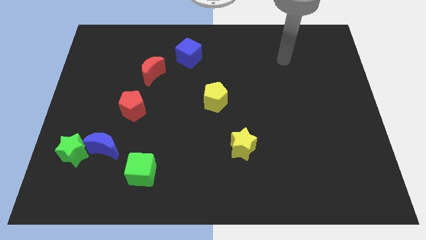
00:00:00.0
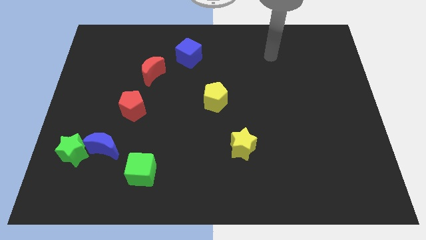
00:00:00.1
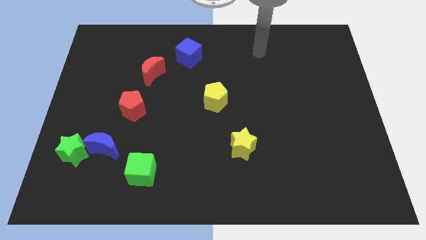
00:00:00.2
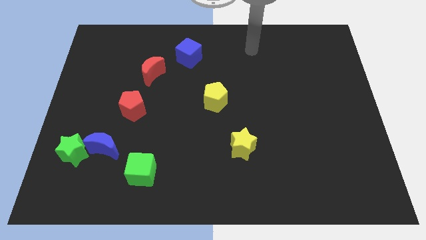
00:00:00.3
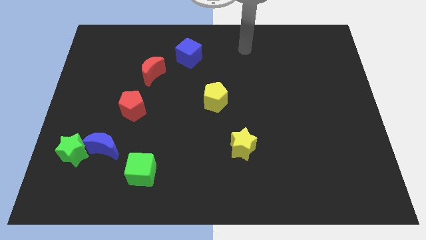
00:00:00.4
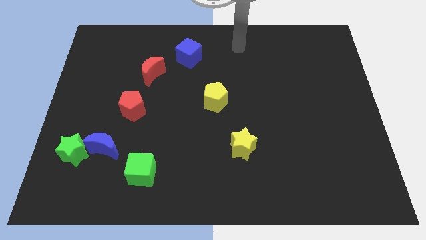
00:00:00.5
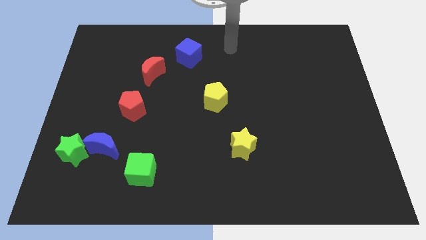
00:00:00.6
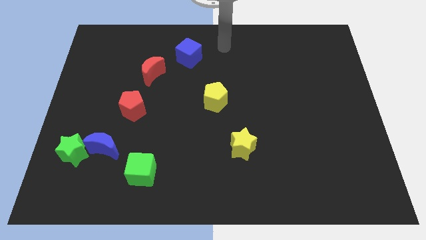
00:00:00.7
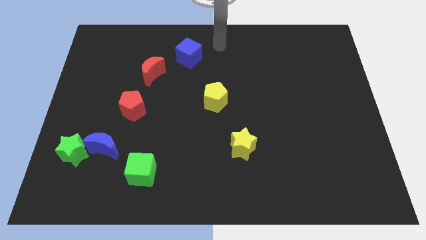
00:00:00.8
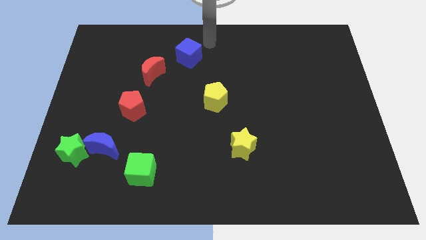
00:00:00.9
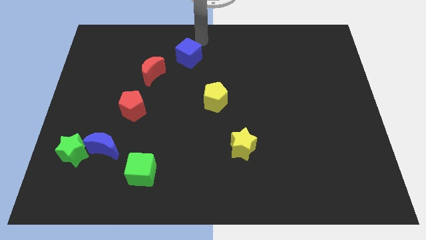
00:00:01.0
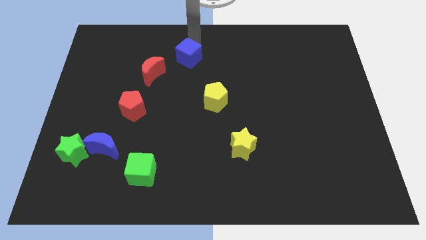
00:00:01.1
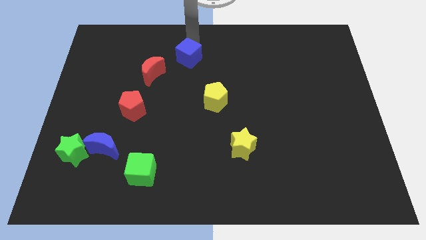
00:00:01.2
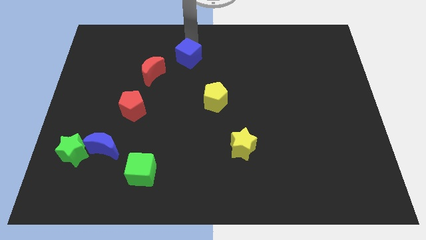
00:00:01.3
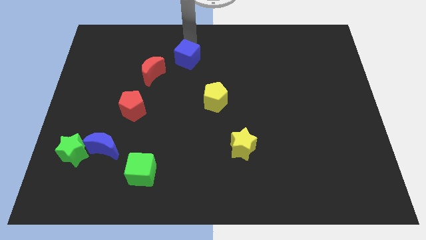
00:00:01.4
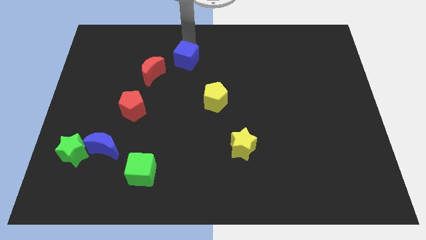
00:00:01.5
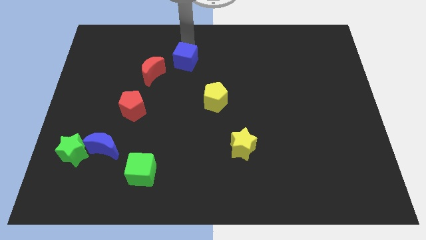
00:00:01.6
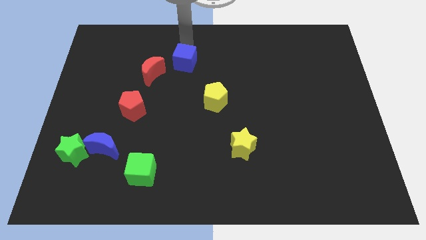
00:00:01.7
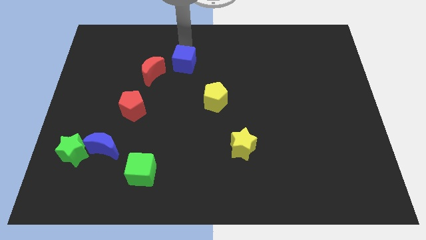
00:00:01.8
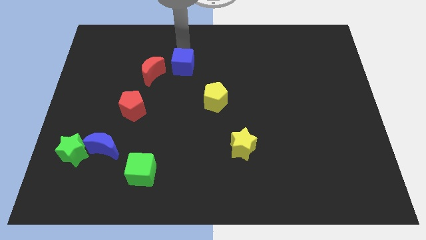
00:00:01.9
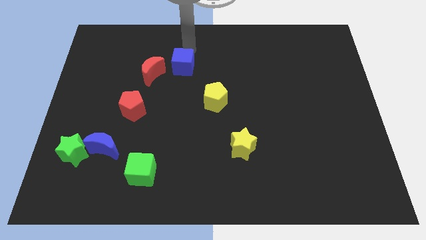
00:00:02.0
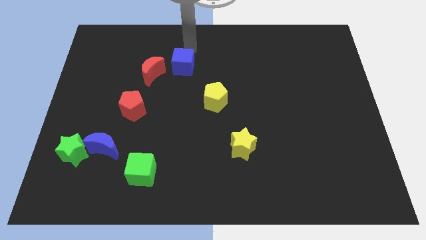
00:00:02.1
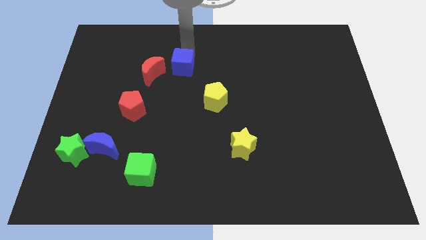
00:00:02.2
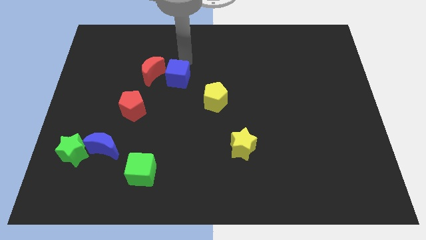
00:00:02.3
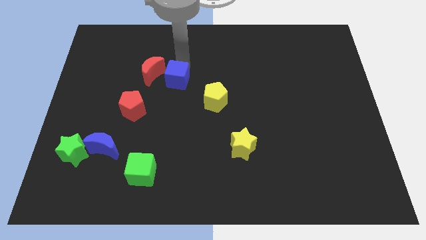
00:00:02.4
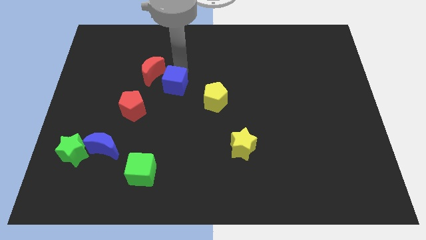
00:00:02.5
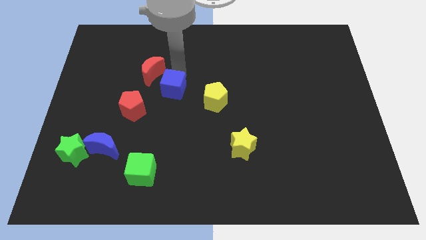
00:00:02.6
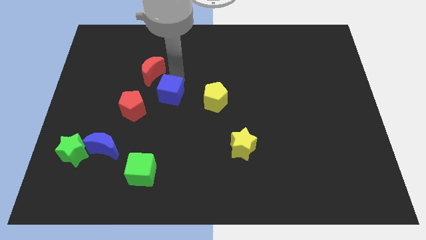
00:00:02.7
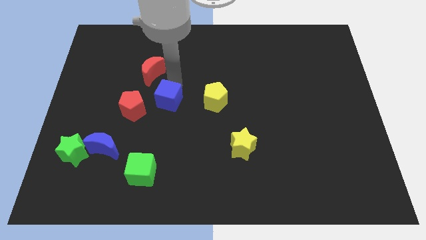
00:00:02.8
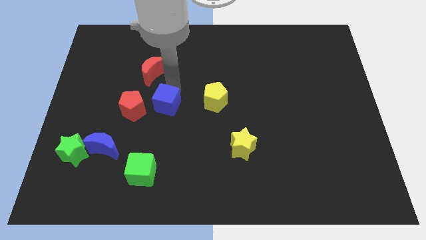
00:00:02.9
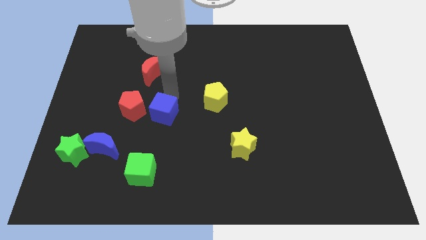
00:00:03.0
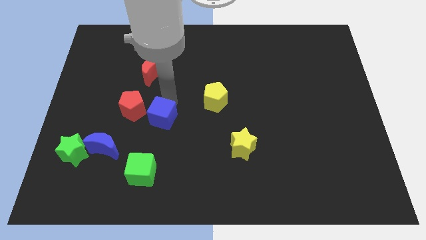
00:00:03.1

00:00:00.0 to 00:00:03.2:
put the blue cube to the top of the green cube

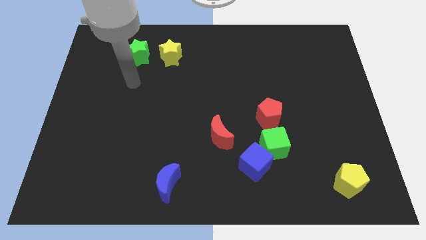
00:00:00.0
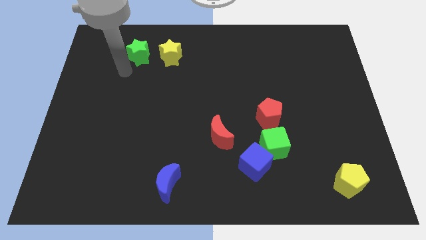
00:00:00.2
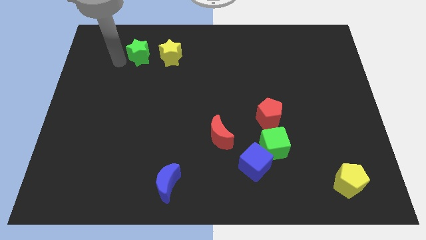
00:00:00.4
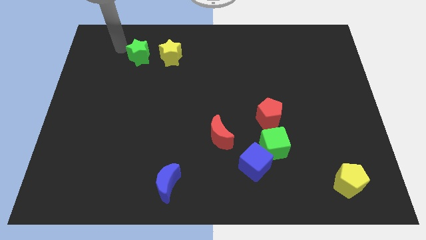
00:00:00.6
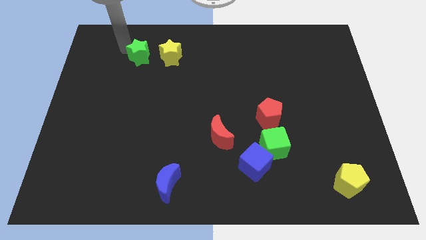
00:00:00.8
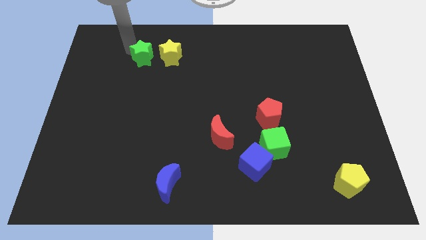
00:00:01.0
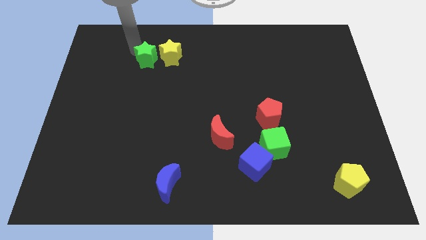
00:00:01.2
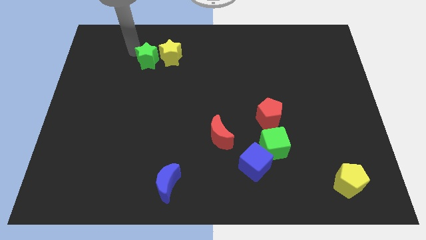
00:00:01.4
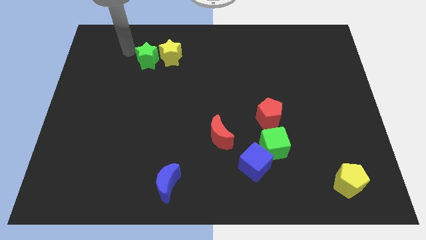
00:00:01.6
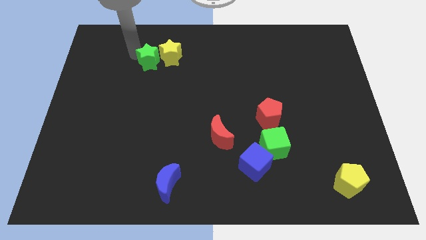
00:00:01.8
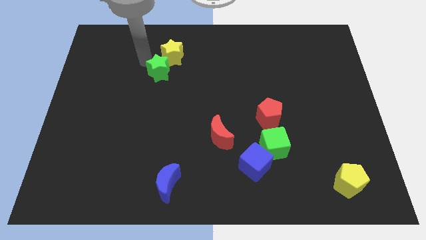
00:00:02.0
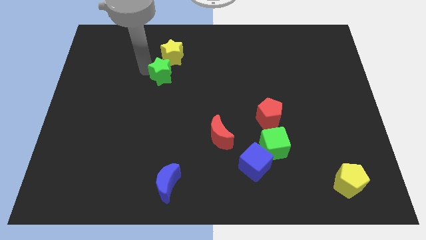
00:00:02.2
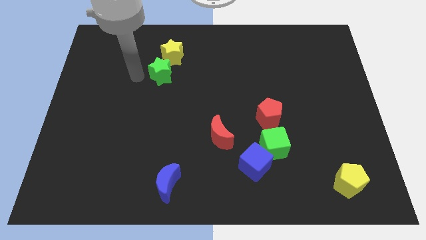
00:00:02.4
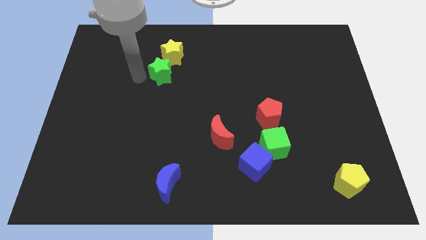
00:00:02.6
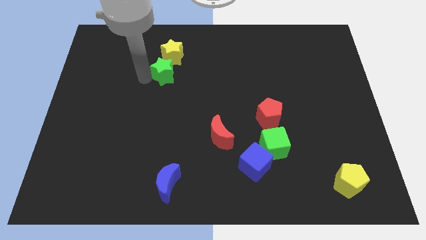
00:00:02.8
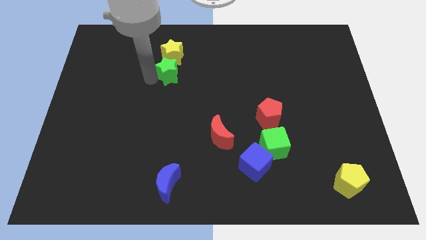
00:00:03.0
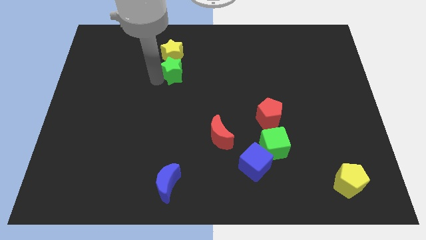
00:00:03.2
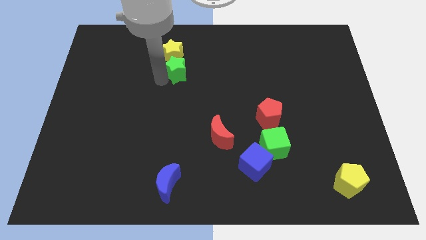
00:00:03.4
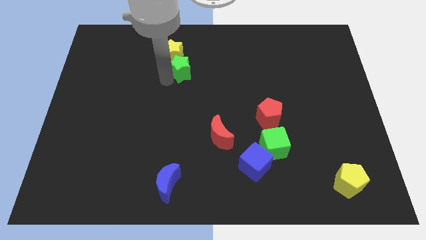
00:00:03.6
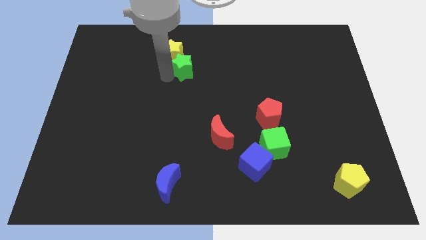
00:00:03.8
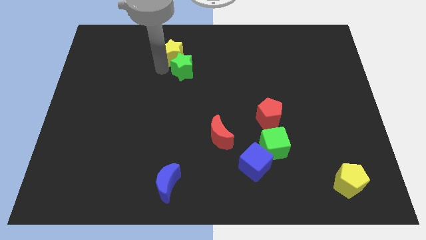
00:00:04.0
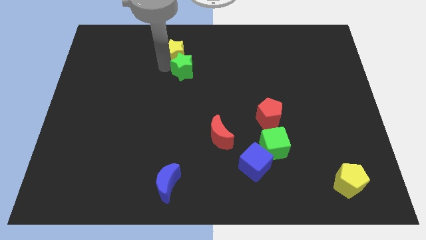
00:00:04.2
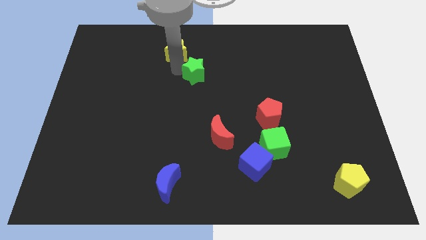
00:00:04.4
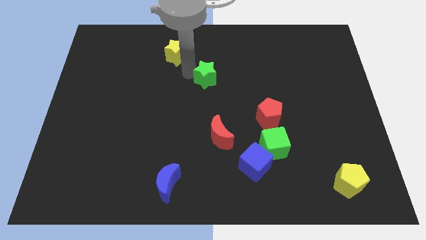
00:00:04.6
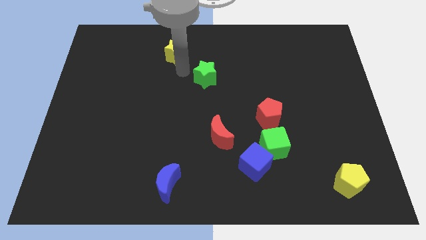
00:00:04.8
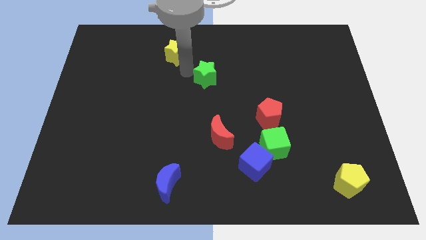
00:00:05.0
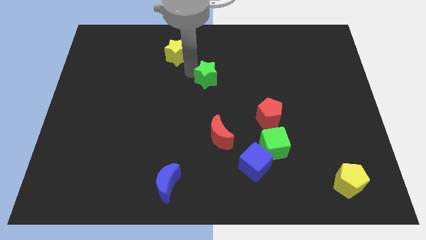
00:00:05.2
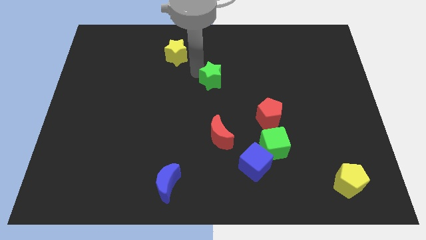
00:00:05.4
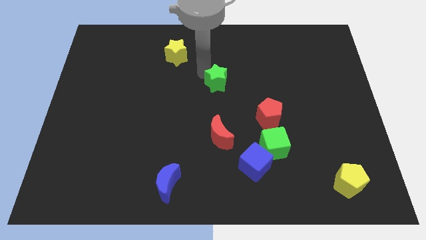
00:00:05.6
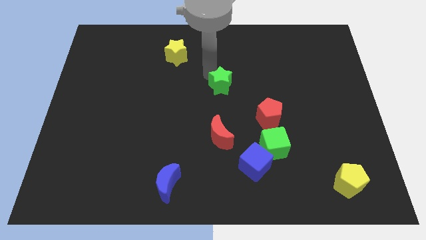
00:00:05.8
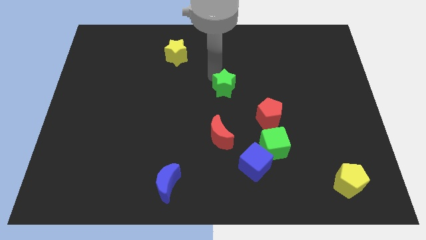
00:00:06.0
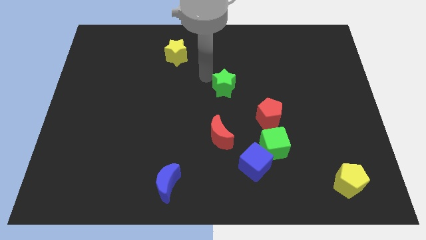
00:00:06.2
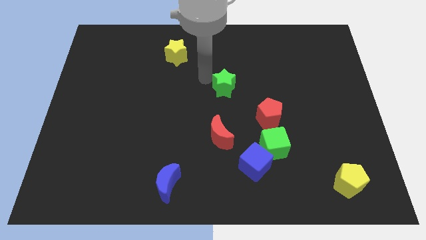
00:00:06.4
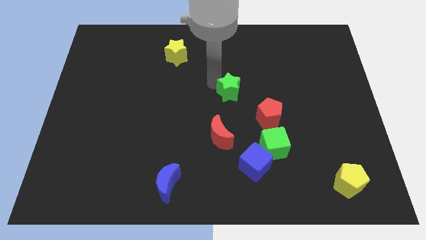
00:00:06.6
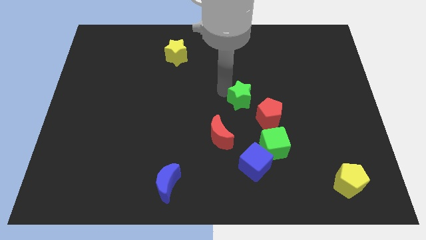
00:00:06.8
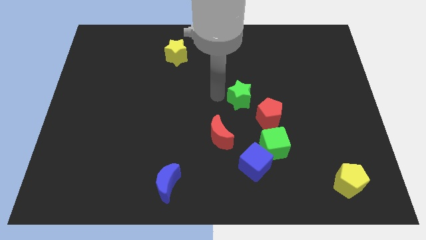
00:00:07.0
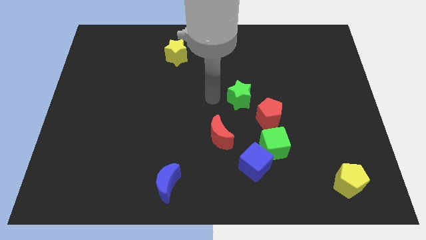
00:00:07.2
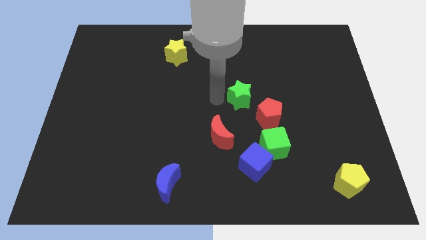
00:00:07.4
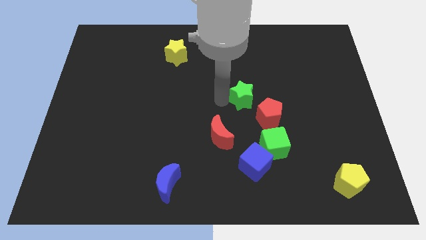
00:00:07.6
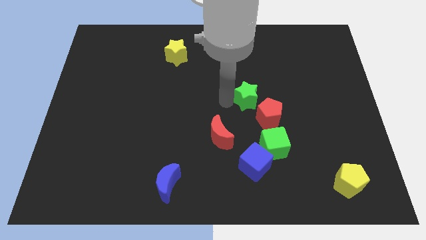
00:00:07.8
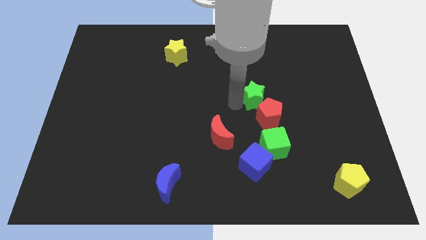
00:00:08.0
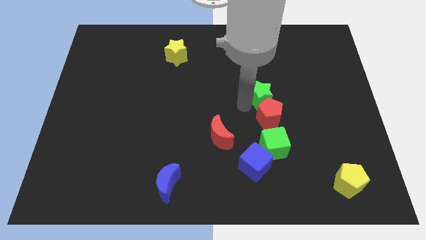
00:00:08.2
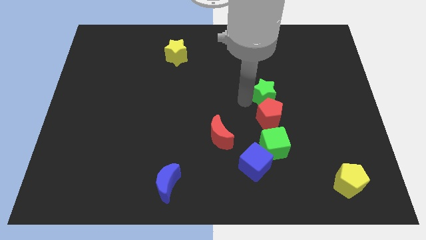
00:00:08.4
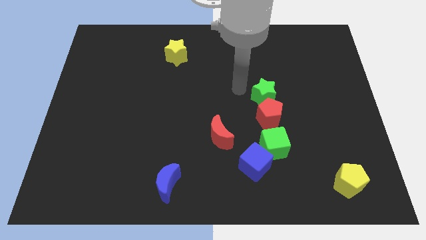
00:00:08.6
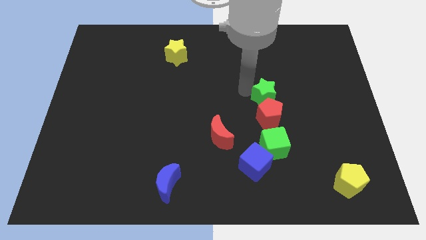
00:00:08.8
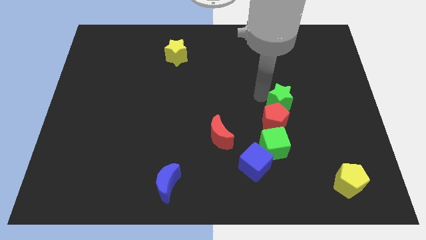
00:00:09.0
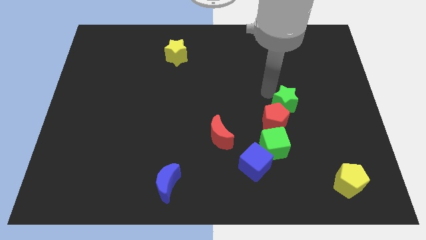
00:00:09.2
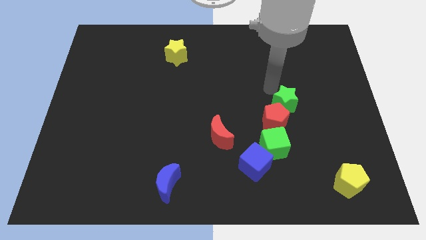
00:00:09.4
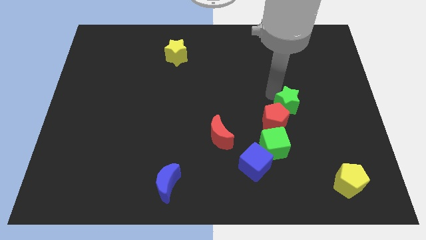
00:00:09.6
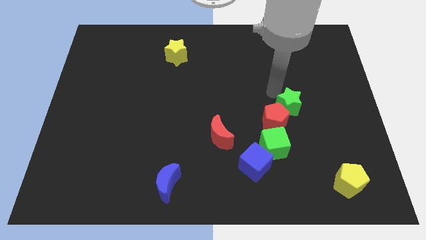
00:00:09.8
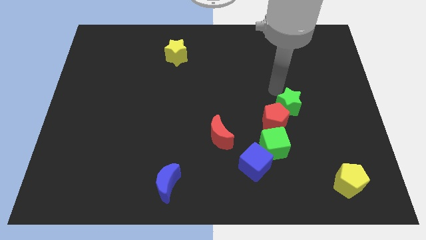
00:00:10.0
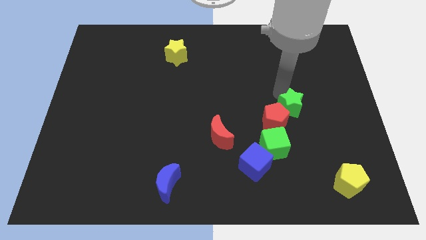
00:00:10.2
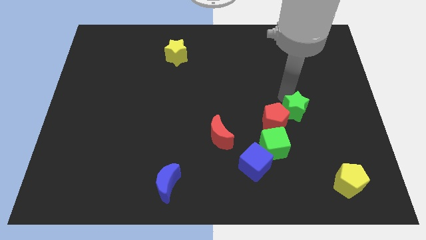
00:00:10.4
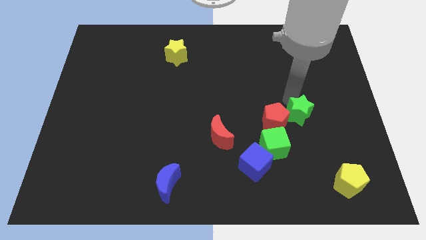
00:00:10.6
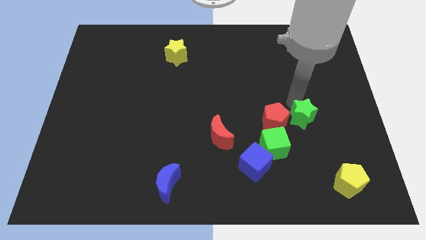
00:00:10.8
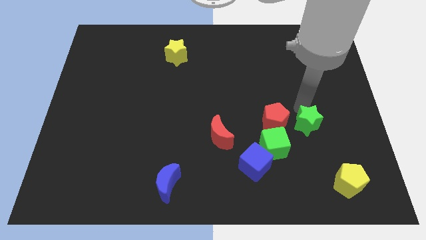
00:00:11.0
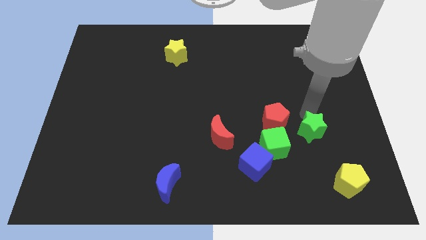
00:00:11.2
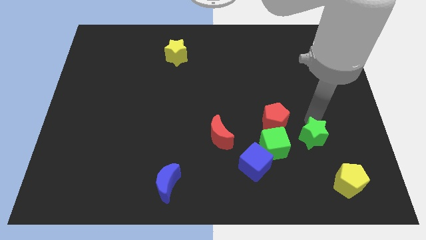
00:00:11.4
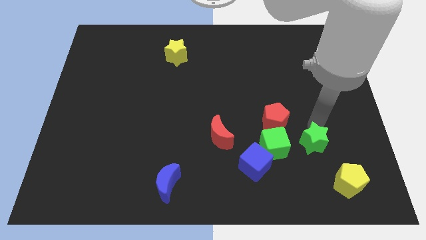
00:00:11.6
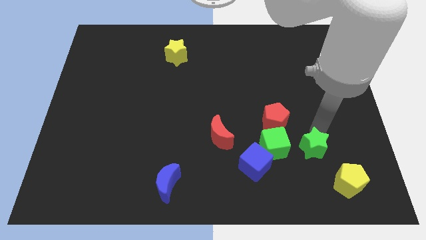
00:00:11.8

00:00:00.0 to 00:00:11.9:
slide the green star to the right side of the blue cube
